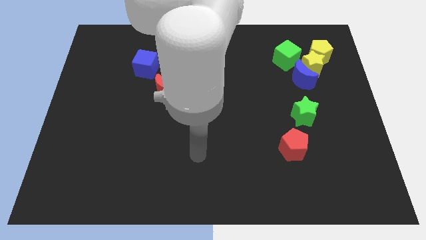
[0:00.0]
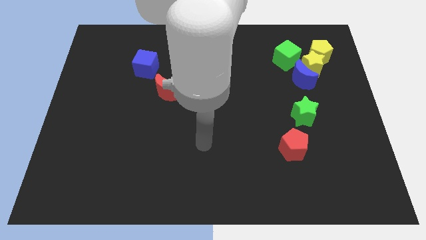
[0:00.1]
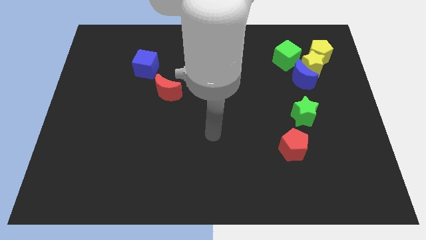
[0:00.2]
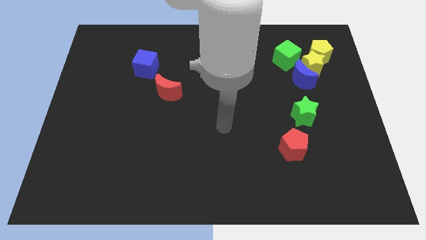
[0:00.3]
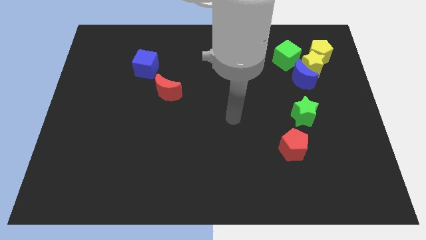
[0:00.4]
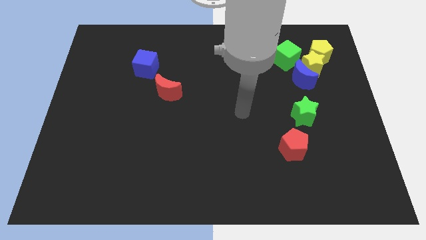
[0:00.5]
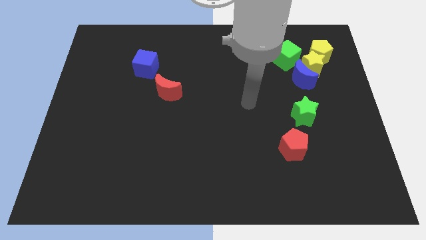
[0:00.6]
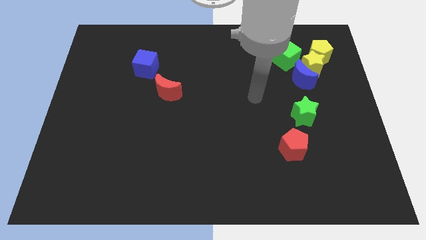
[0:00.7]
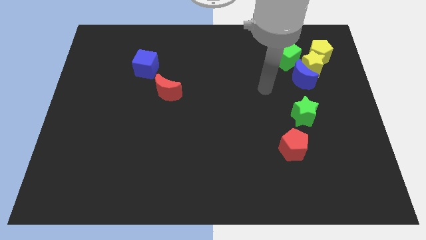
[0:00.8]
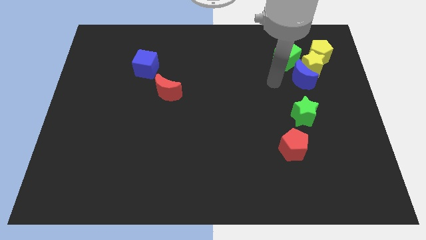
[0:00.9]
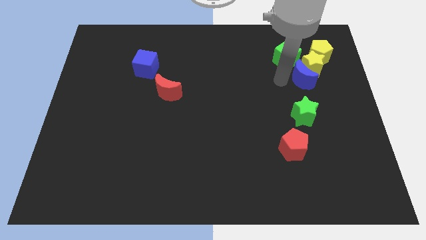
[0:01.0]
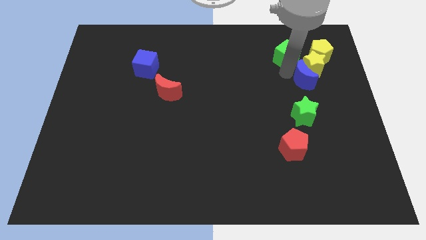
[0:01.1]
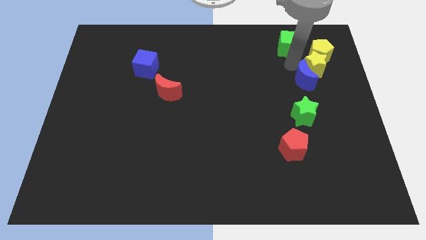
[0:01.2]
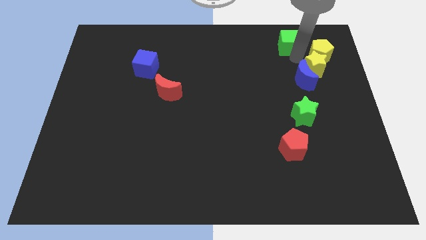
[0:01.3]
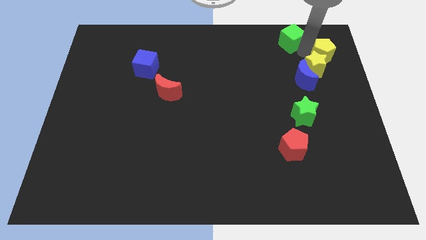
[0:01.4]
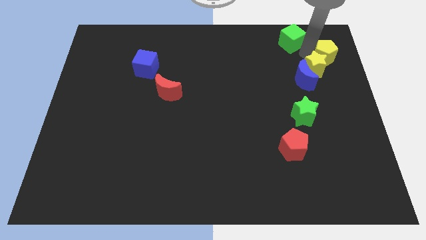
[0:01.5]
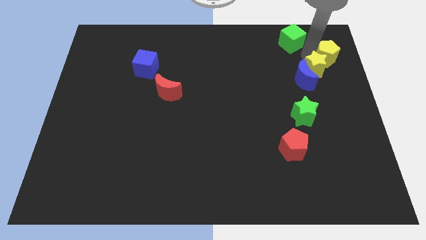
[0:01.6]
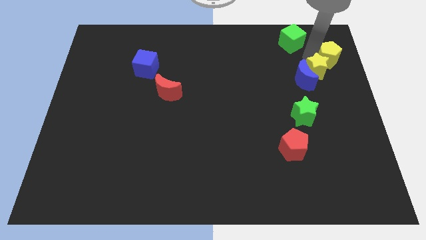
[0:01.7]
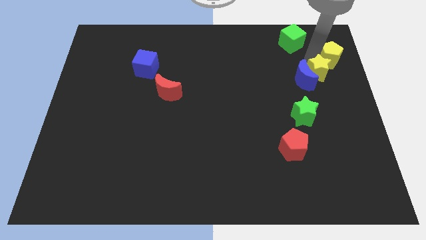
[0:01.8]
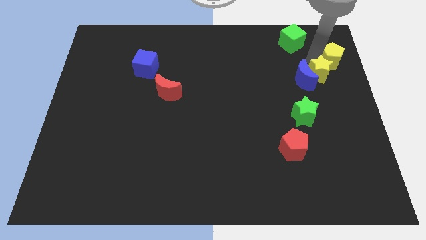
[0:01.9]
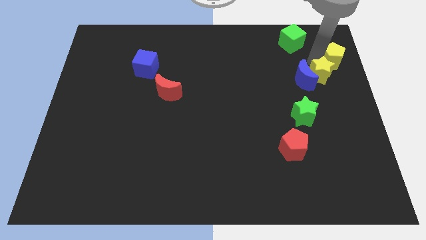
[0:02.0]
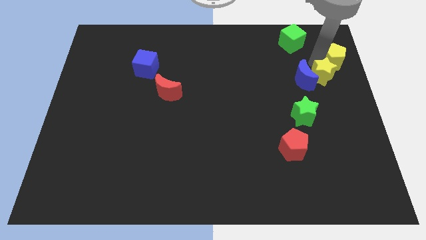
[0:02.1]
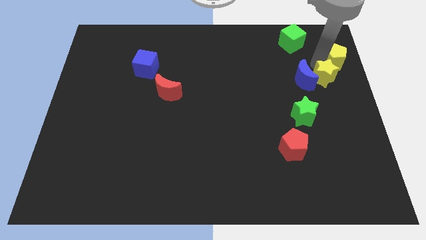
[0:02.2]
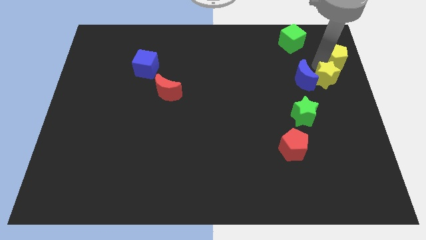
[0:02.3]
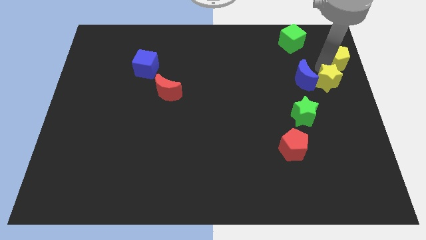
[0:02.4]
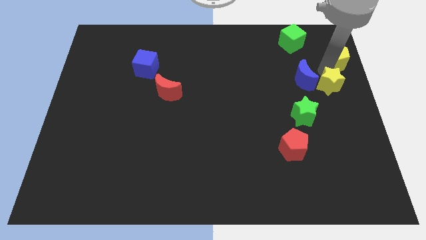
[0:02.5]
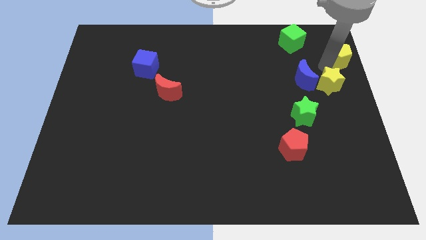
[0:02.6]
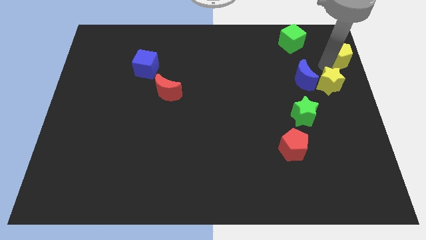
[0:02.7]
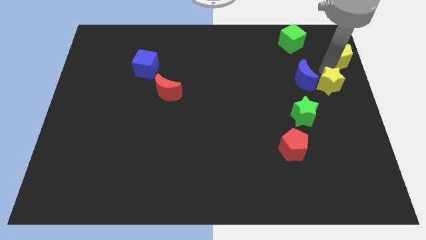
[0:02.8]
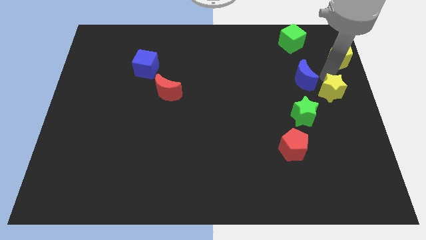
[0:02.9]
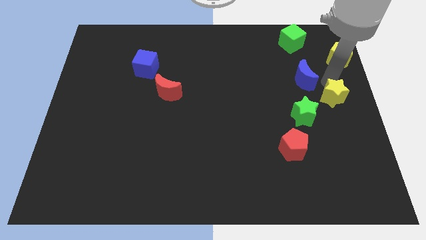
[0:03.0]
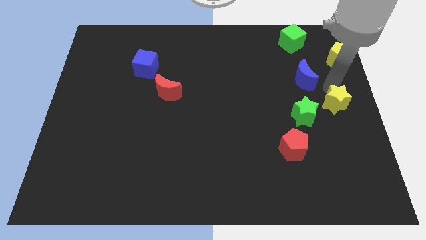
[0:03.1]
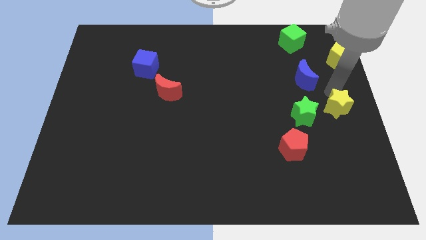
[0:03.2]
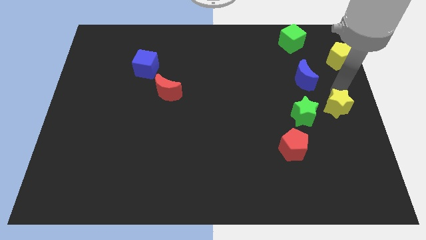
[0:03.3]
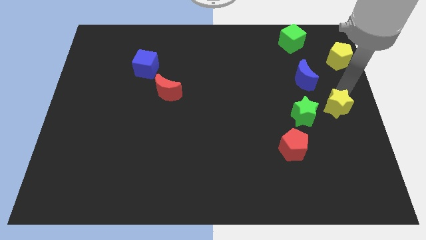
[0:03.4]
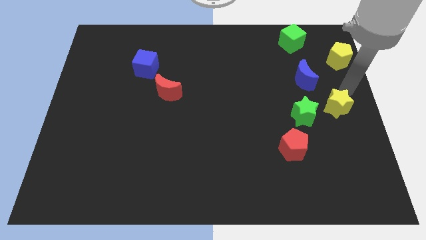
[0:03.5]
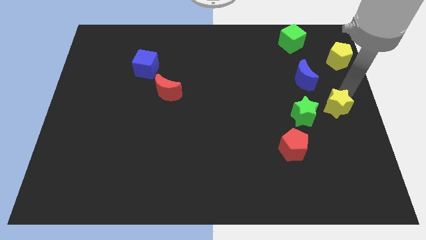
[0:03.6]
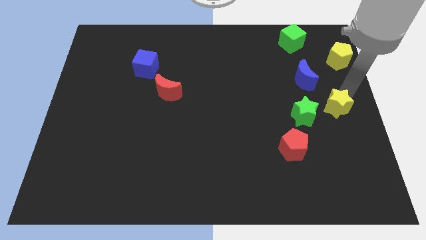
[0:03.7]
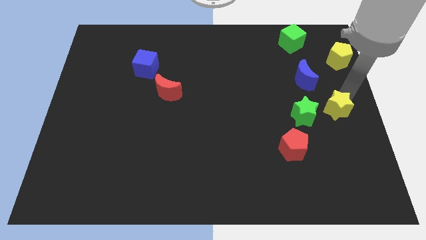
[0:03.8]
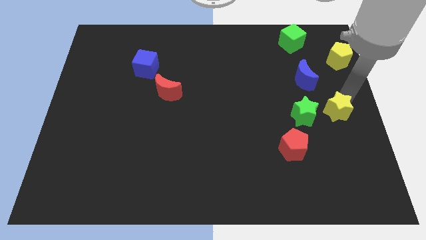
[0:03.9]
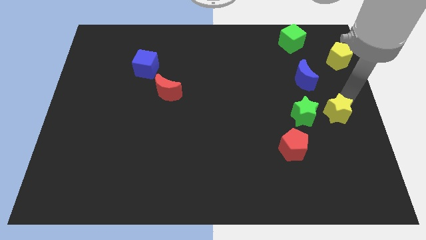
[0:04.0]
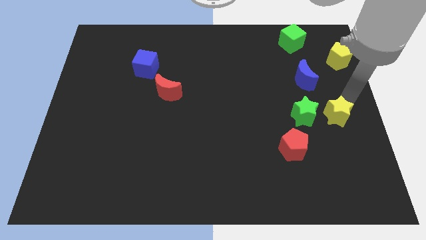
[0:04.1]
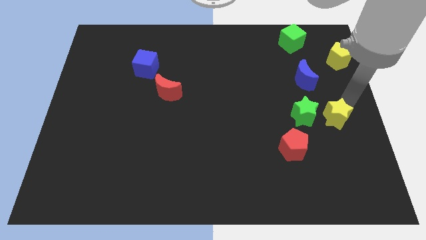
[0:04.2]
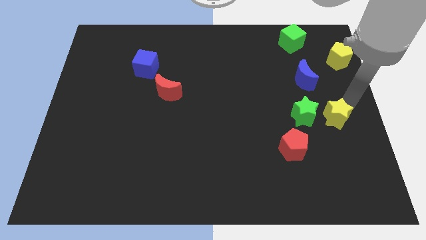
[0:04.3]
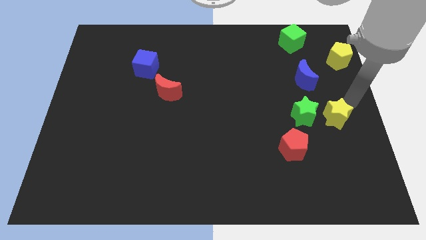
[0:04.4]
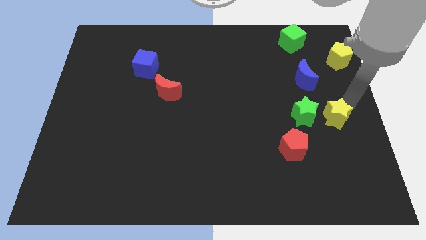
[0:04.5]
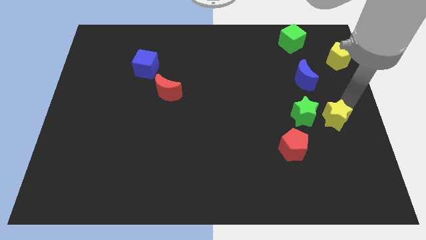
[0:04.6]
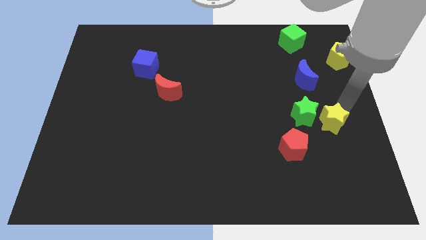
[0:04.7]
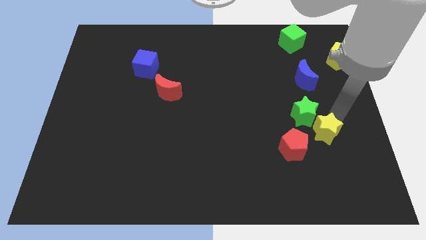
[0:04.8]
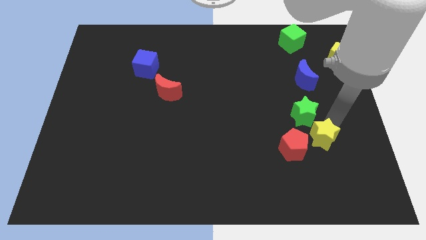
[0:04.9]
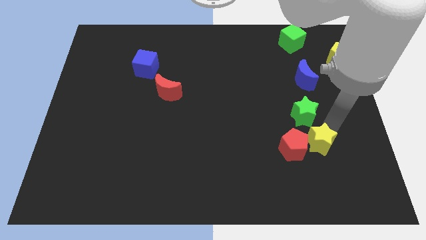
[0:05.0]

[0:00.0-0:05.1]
put the yellow star close to the red pentagon

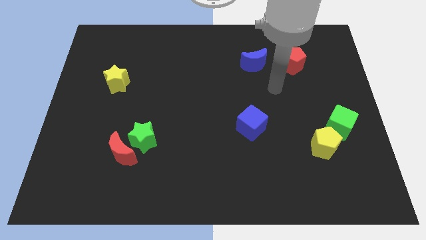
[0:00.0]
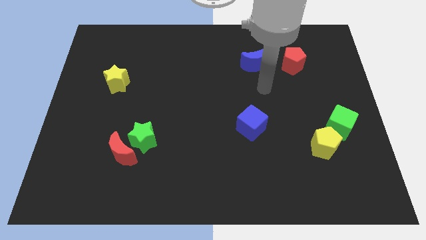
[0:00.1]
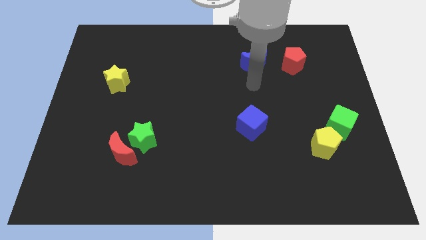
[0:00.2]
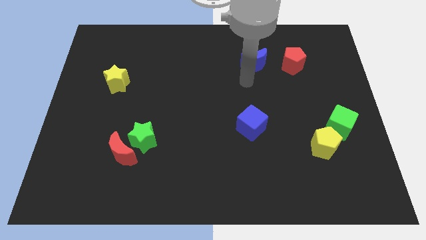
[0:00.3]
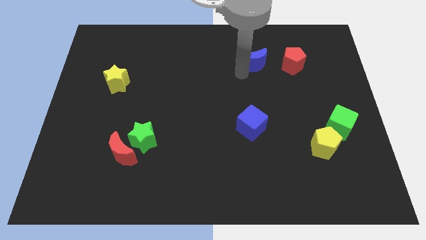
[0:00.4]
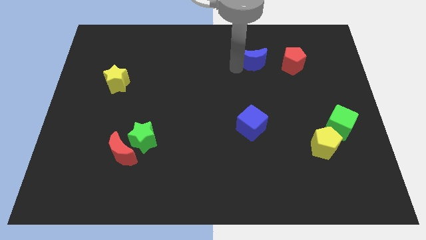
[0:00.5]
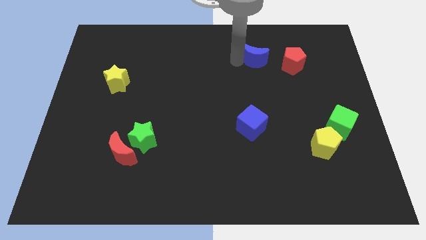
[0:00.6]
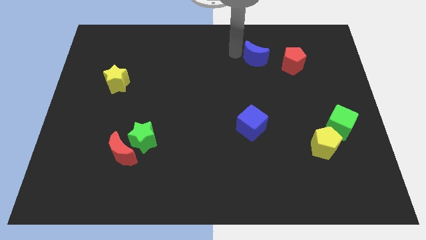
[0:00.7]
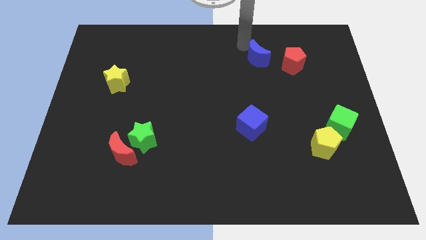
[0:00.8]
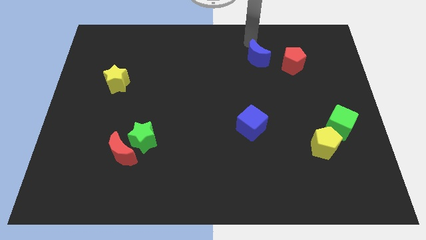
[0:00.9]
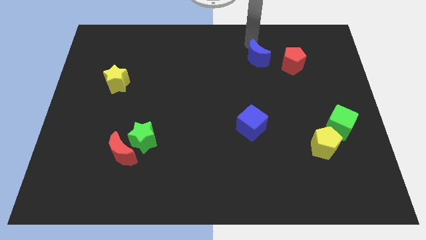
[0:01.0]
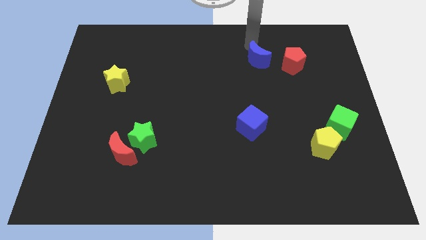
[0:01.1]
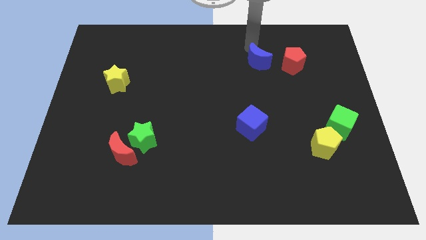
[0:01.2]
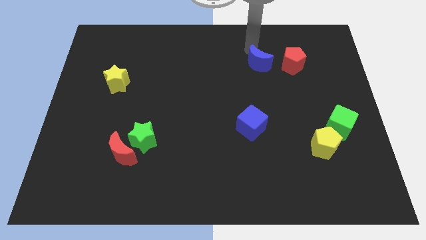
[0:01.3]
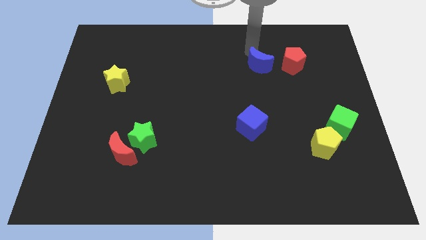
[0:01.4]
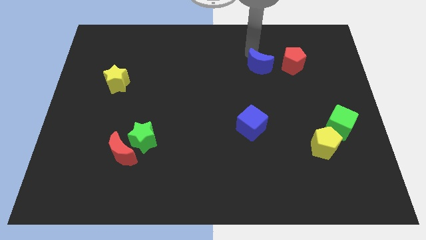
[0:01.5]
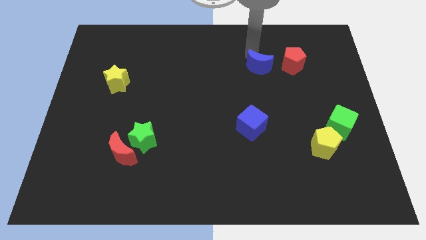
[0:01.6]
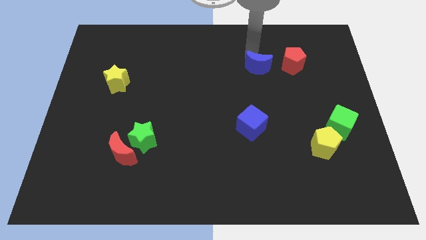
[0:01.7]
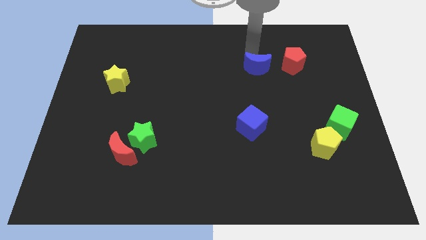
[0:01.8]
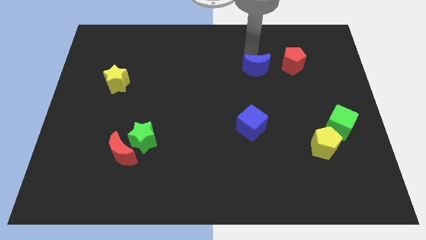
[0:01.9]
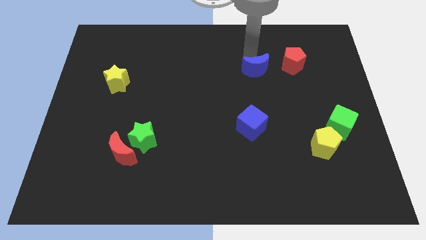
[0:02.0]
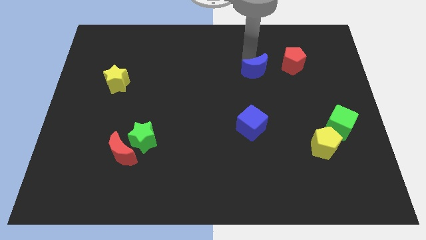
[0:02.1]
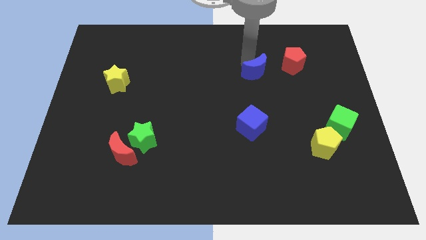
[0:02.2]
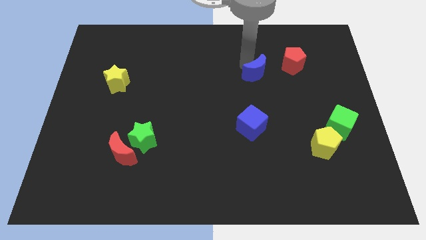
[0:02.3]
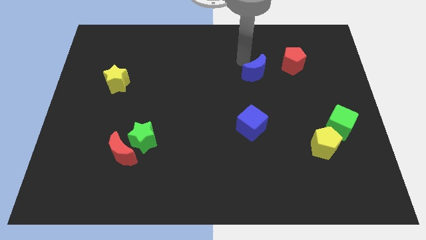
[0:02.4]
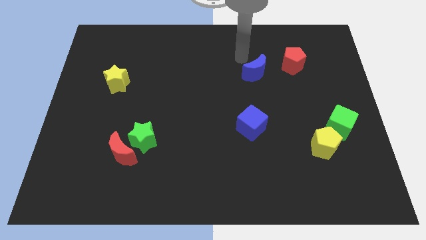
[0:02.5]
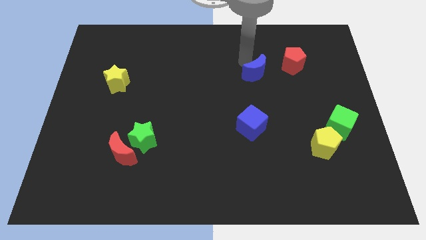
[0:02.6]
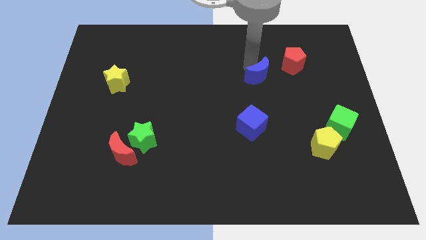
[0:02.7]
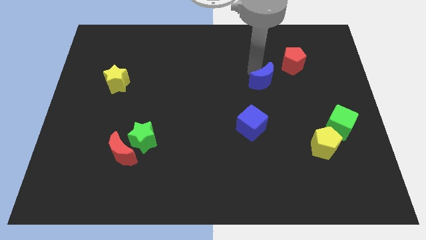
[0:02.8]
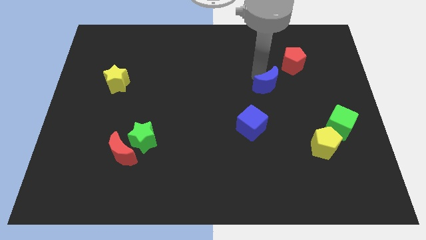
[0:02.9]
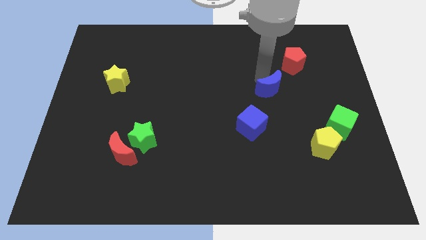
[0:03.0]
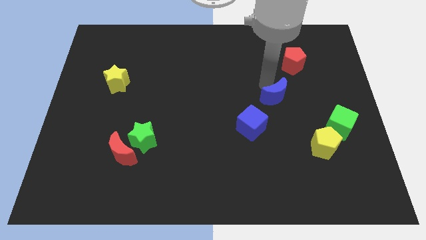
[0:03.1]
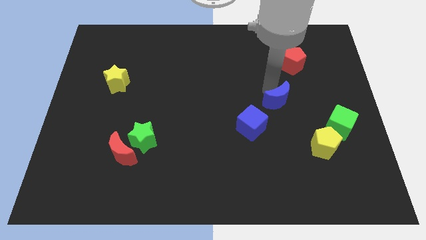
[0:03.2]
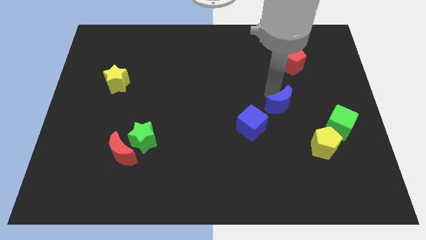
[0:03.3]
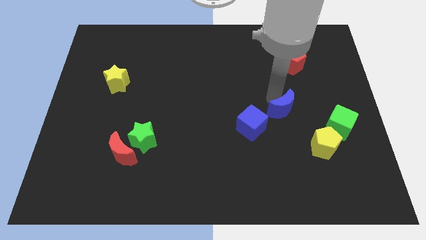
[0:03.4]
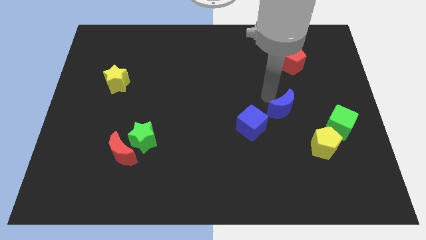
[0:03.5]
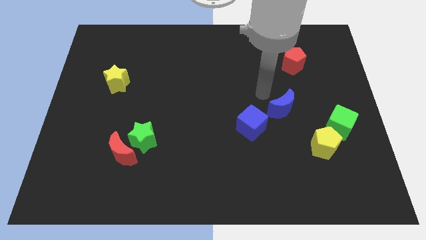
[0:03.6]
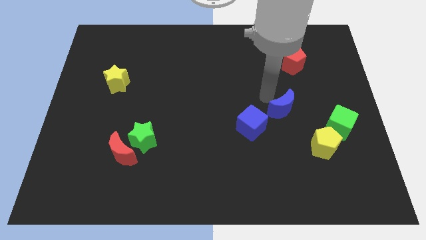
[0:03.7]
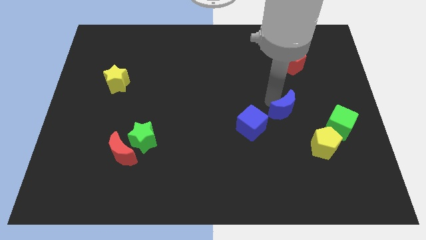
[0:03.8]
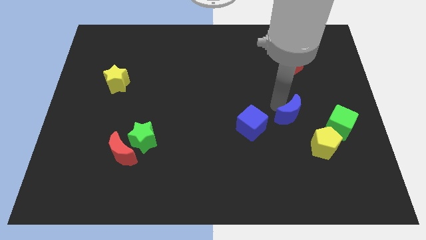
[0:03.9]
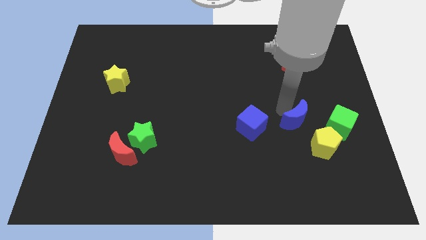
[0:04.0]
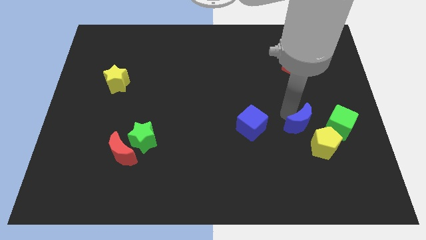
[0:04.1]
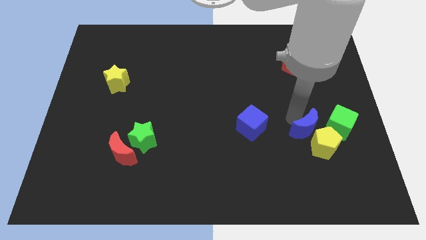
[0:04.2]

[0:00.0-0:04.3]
push the blue moon next to the yellow pentagon
